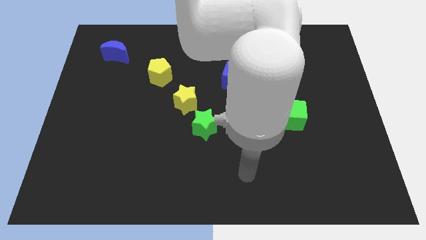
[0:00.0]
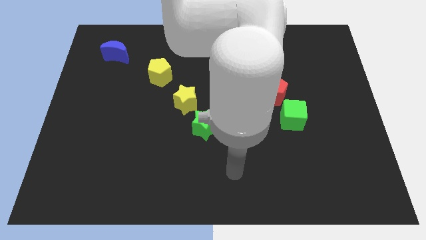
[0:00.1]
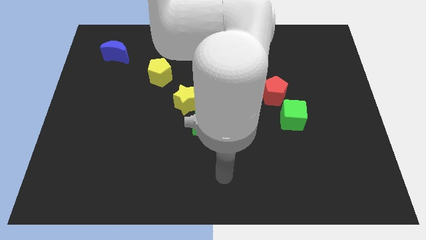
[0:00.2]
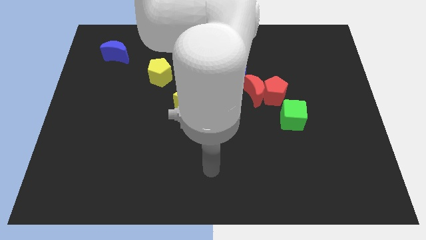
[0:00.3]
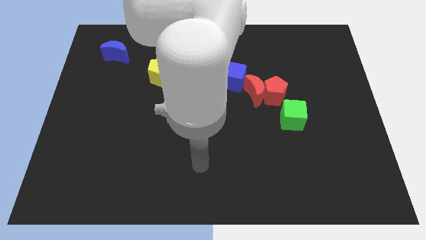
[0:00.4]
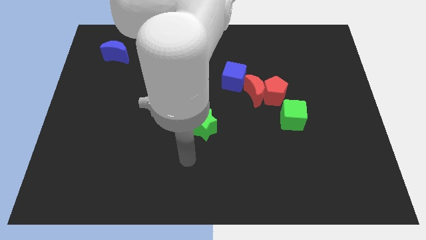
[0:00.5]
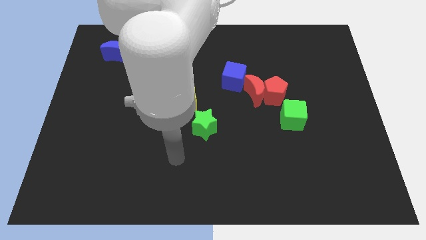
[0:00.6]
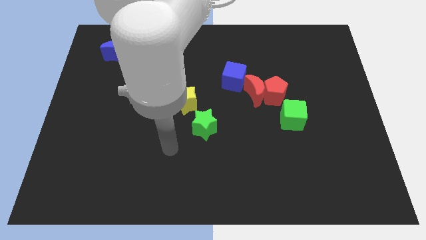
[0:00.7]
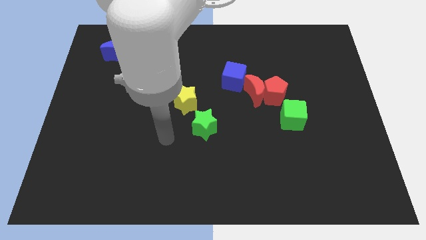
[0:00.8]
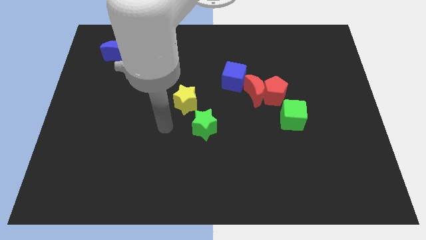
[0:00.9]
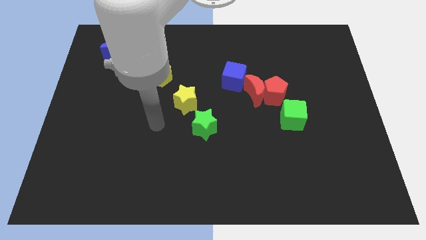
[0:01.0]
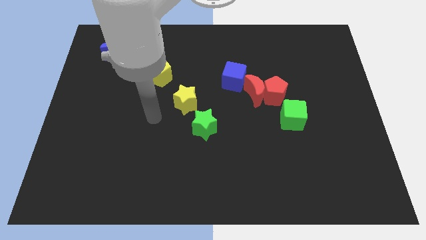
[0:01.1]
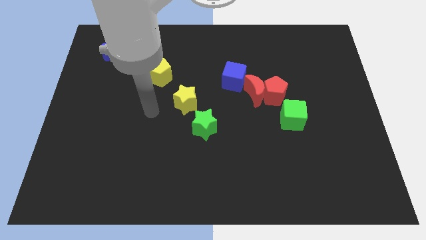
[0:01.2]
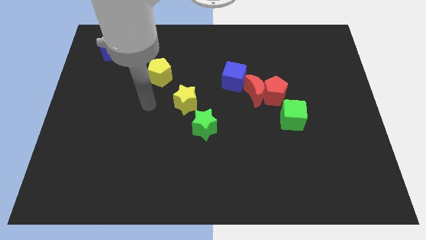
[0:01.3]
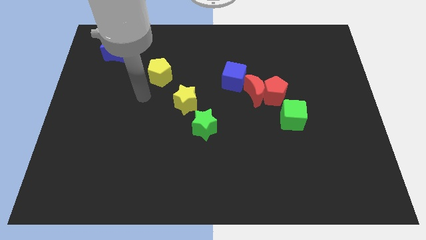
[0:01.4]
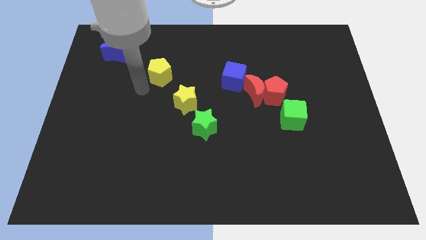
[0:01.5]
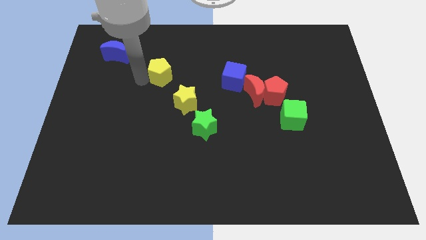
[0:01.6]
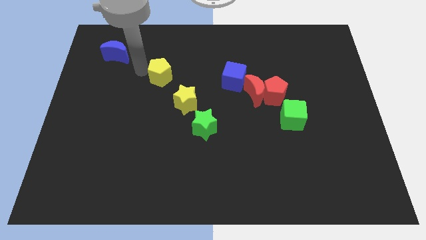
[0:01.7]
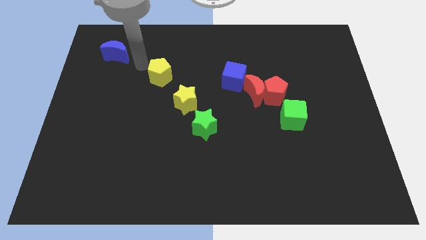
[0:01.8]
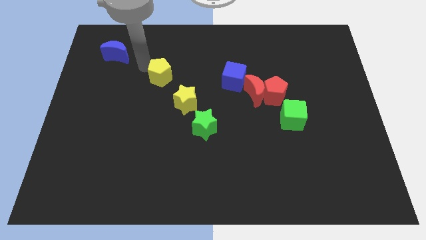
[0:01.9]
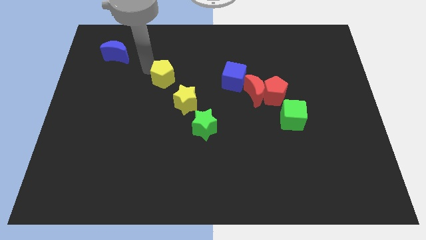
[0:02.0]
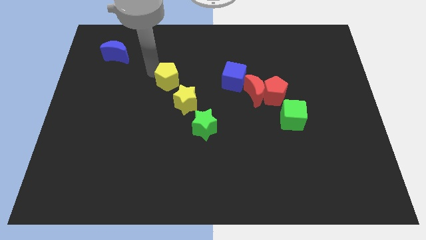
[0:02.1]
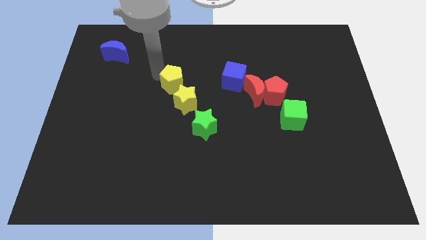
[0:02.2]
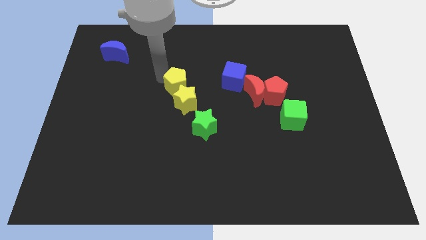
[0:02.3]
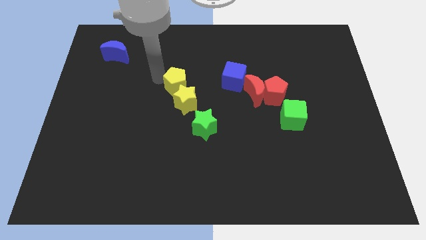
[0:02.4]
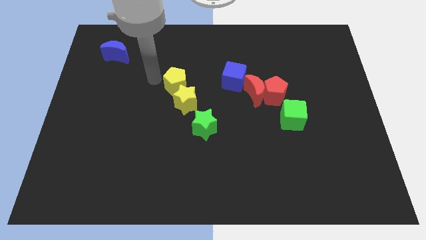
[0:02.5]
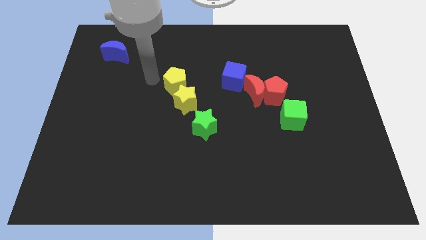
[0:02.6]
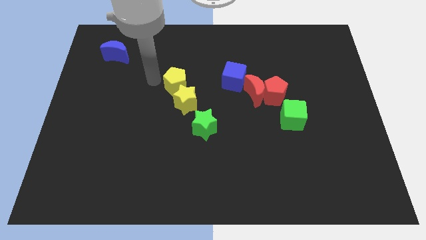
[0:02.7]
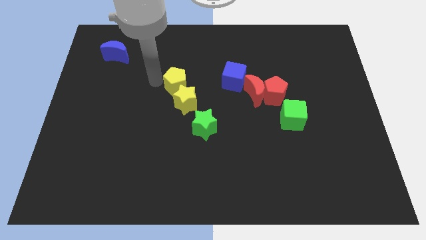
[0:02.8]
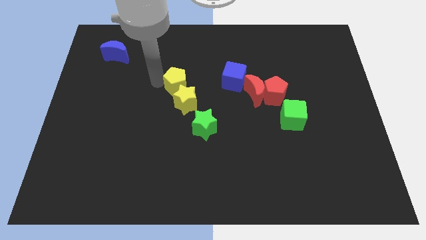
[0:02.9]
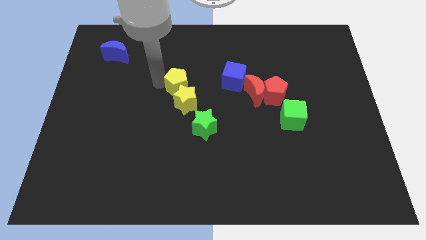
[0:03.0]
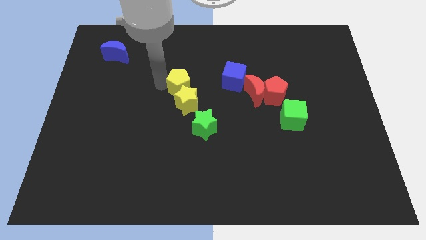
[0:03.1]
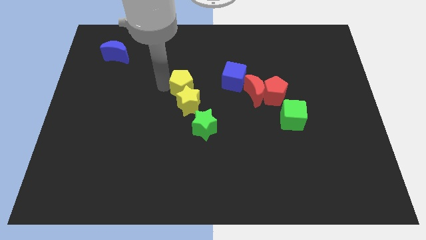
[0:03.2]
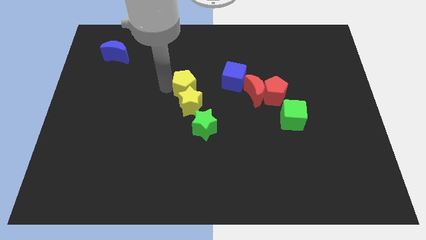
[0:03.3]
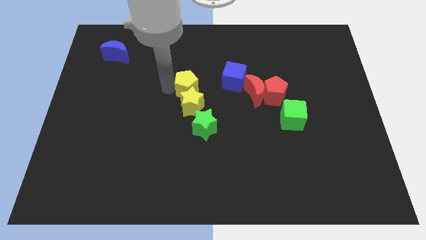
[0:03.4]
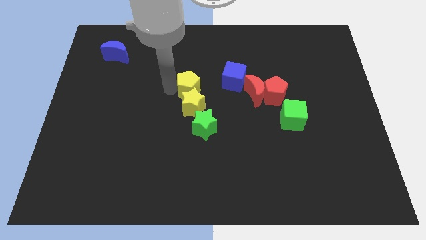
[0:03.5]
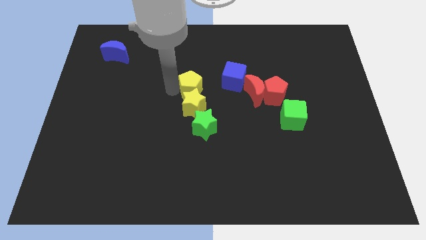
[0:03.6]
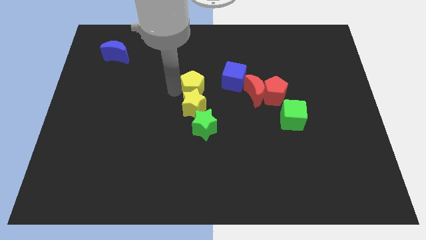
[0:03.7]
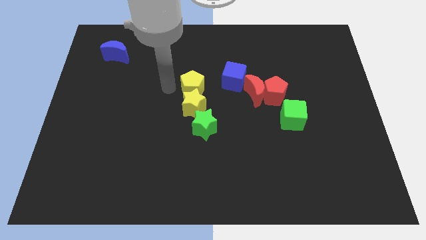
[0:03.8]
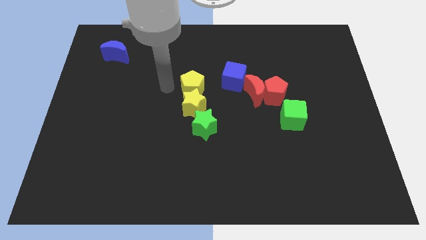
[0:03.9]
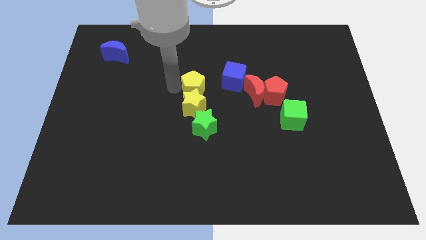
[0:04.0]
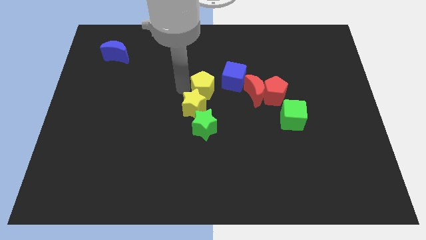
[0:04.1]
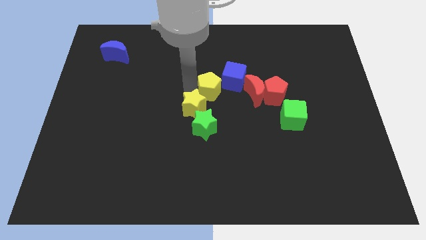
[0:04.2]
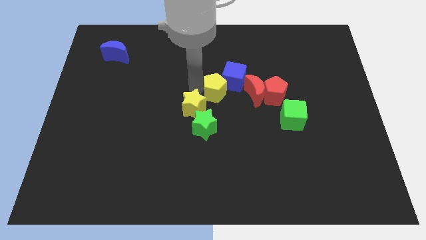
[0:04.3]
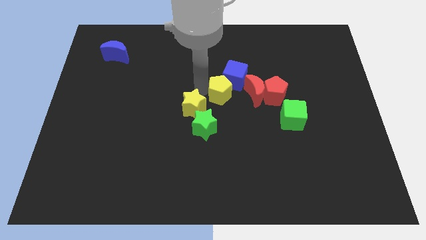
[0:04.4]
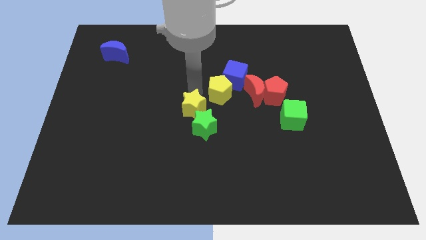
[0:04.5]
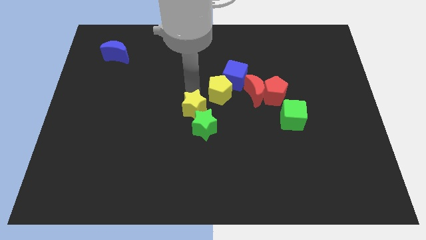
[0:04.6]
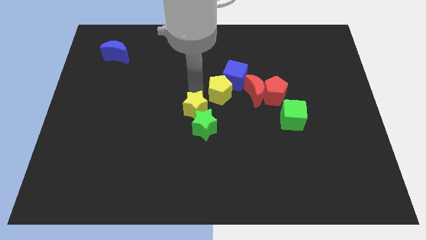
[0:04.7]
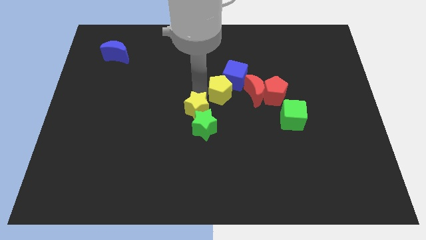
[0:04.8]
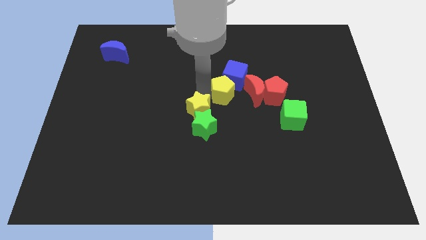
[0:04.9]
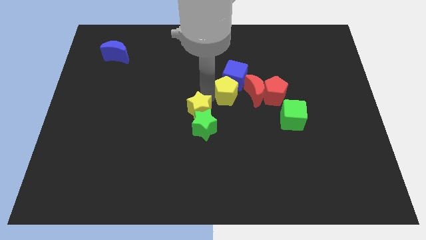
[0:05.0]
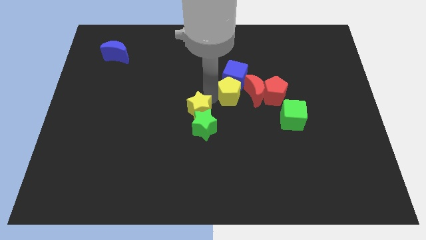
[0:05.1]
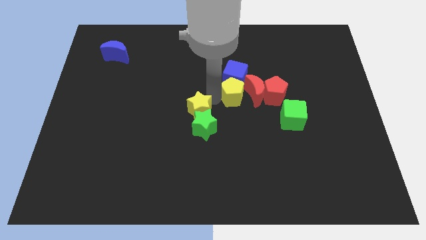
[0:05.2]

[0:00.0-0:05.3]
slide the yellow pentagon close to the red moon

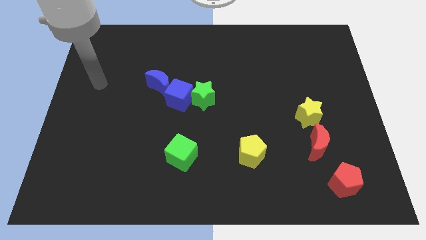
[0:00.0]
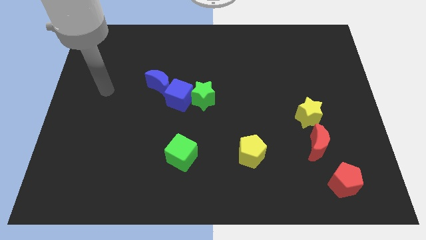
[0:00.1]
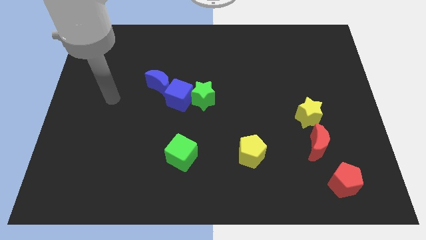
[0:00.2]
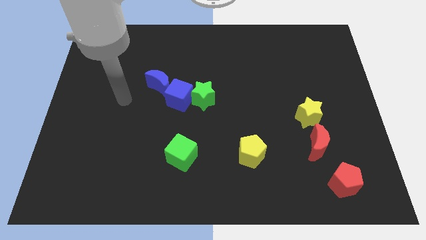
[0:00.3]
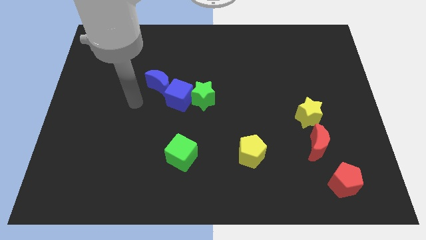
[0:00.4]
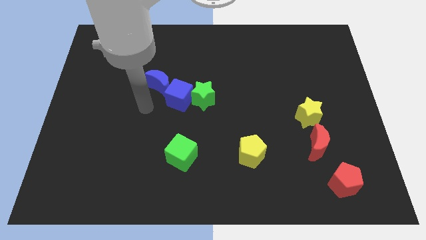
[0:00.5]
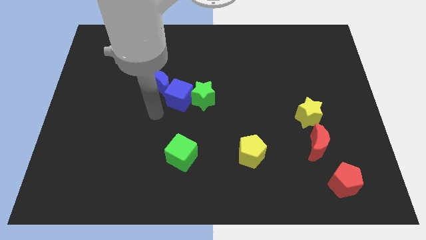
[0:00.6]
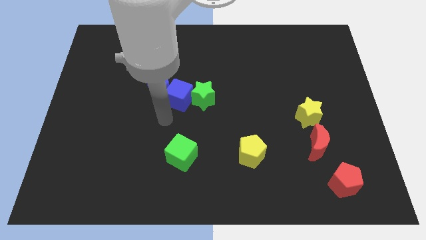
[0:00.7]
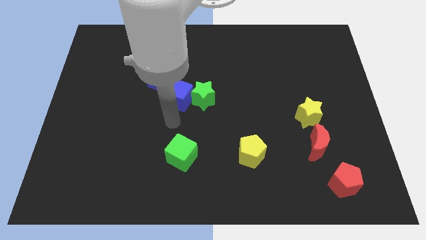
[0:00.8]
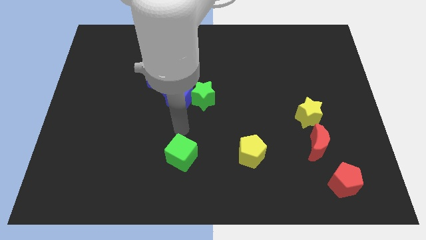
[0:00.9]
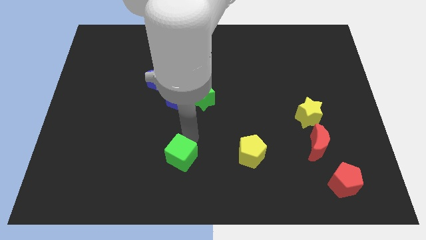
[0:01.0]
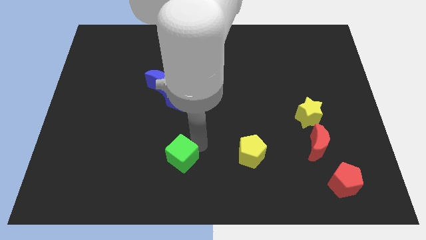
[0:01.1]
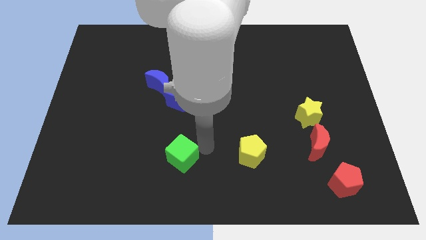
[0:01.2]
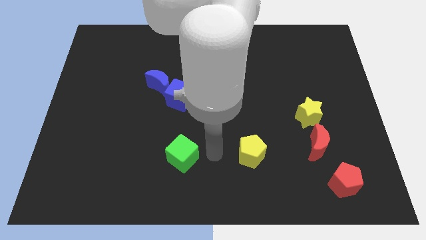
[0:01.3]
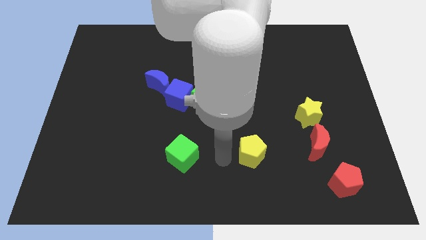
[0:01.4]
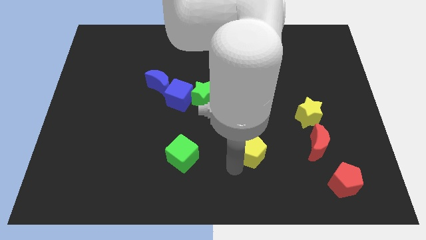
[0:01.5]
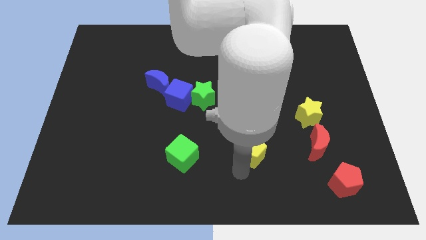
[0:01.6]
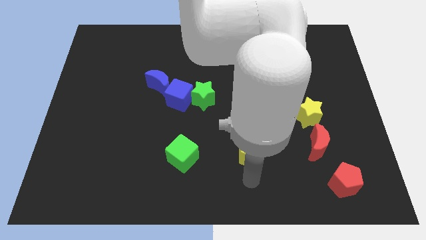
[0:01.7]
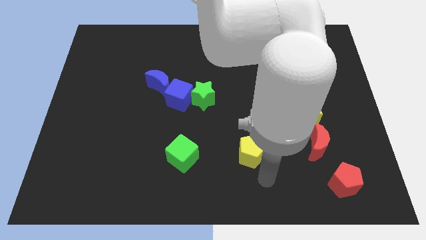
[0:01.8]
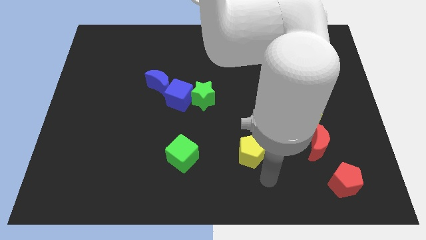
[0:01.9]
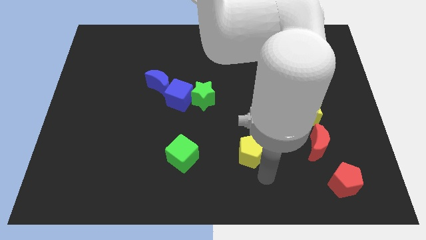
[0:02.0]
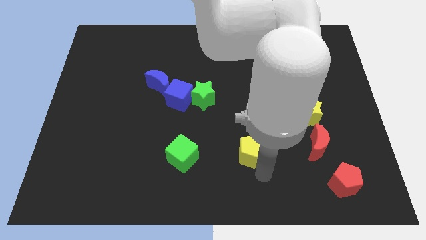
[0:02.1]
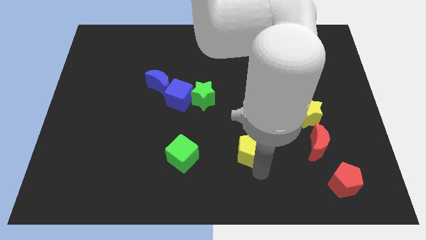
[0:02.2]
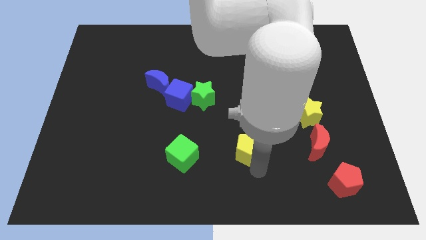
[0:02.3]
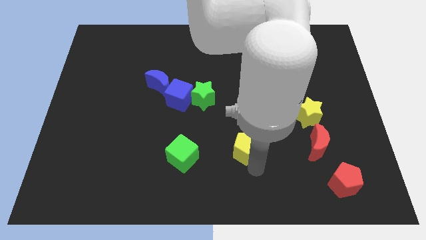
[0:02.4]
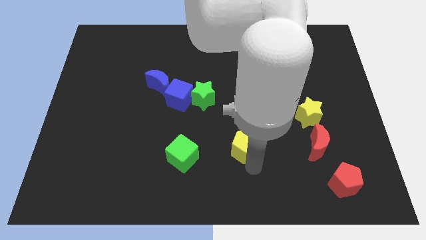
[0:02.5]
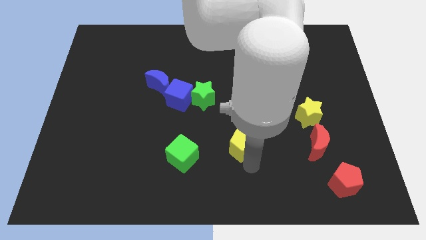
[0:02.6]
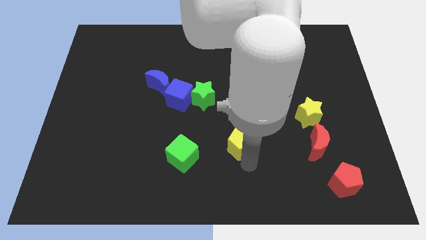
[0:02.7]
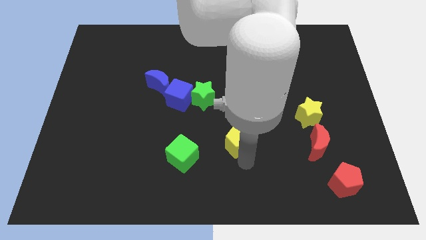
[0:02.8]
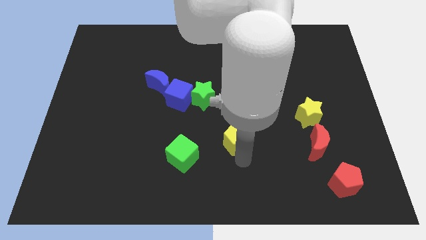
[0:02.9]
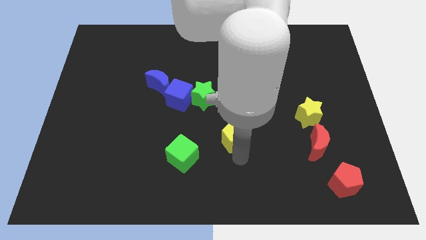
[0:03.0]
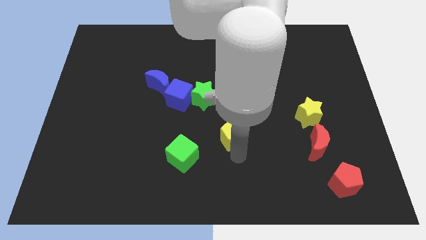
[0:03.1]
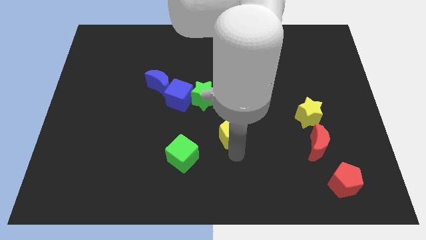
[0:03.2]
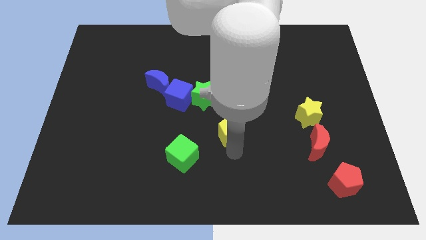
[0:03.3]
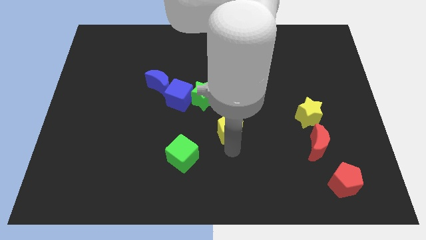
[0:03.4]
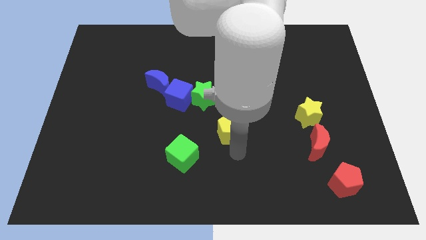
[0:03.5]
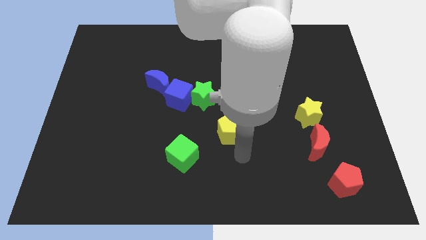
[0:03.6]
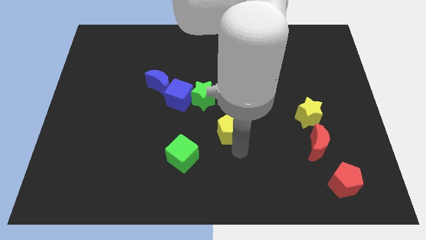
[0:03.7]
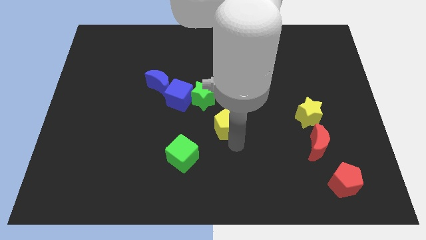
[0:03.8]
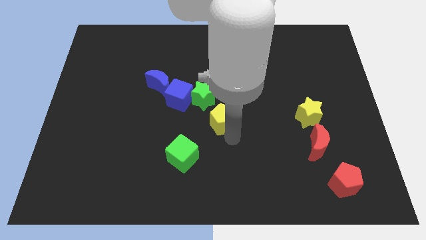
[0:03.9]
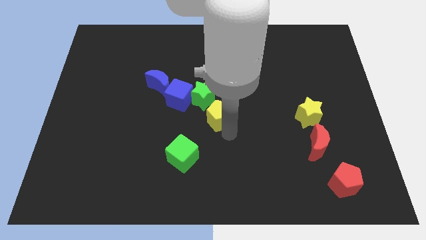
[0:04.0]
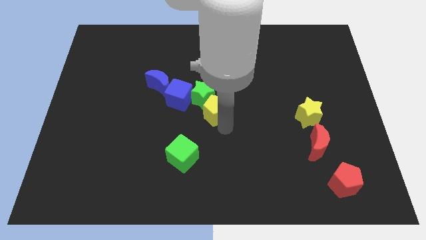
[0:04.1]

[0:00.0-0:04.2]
slide the yellow pentagon to the green star
